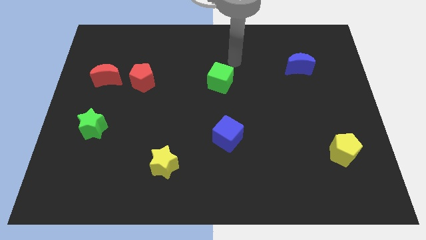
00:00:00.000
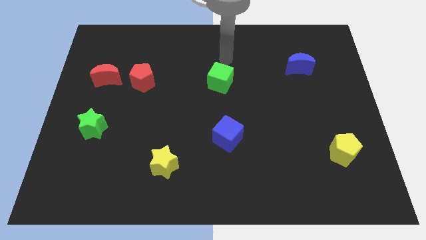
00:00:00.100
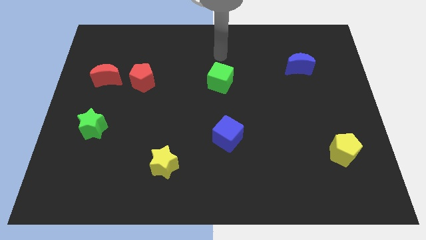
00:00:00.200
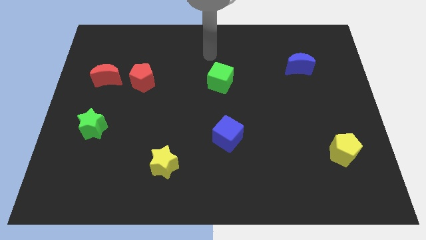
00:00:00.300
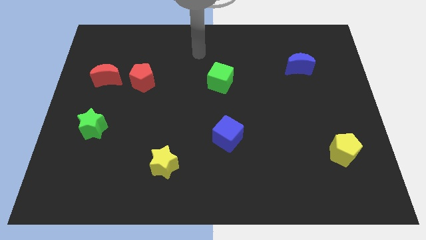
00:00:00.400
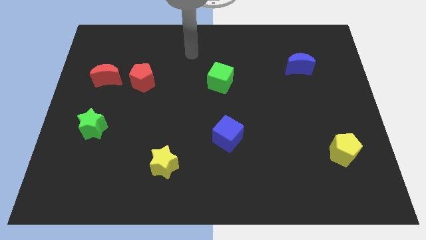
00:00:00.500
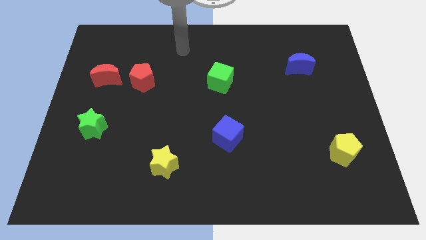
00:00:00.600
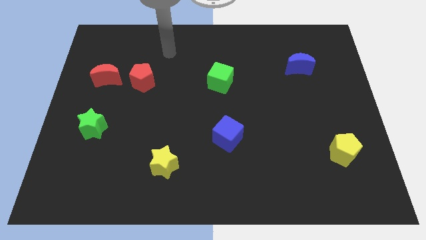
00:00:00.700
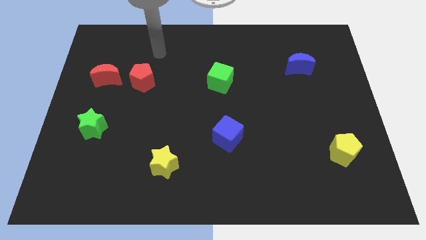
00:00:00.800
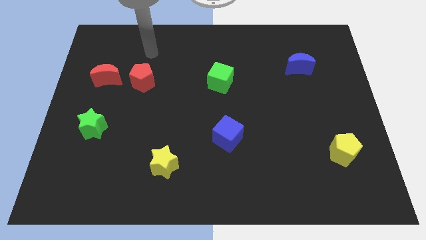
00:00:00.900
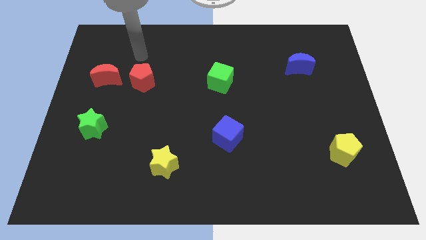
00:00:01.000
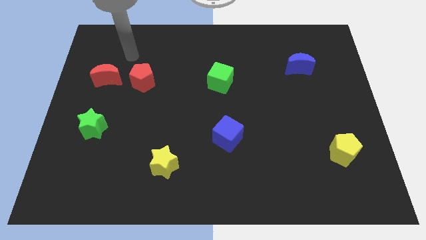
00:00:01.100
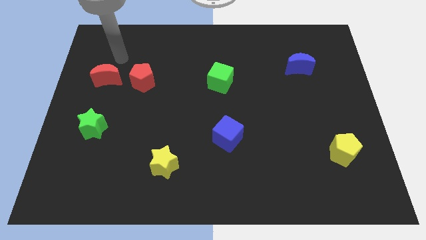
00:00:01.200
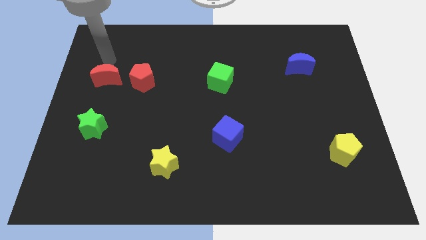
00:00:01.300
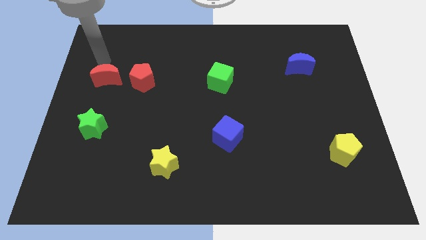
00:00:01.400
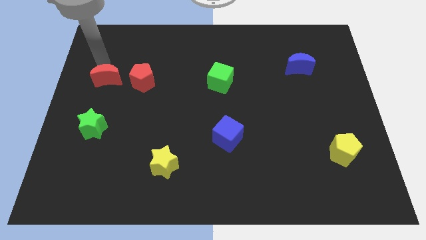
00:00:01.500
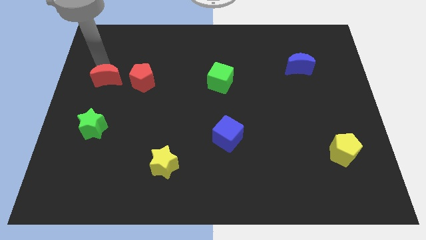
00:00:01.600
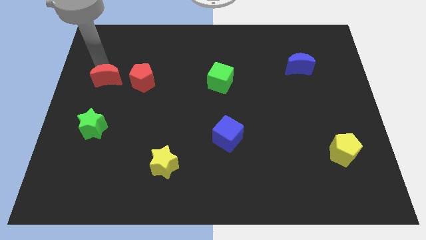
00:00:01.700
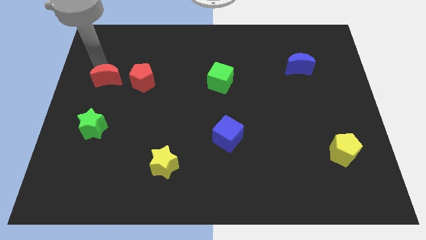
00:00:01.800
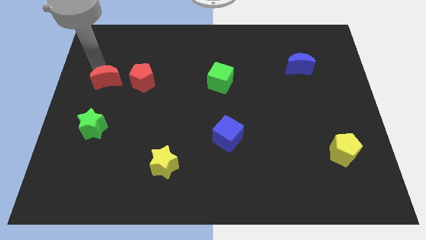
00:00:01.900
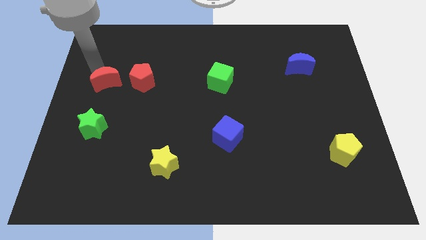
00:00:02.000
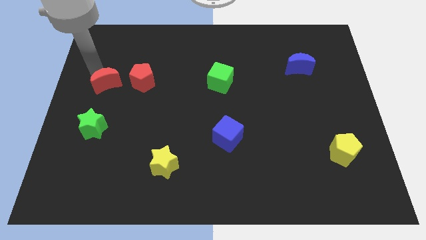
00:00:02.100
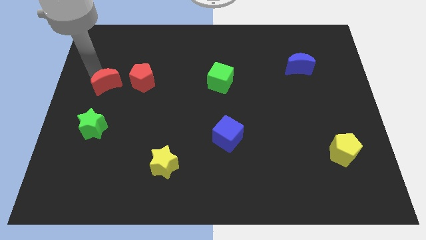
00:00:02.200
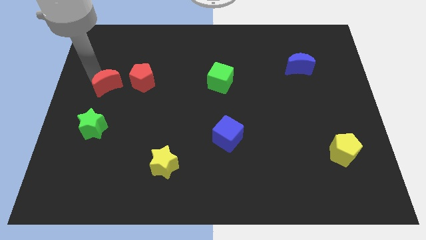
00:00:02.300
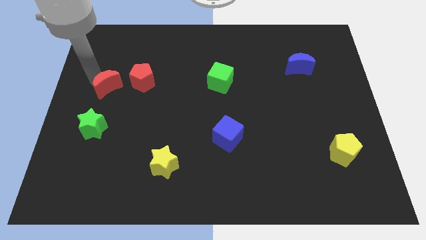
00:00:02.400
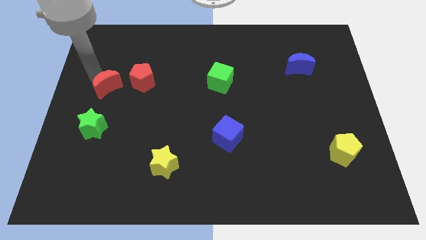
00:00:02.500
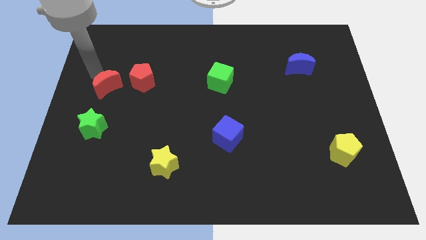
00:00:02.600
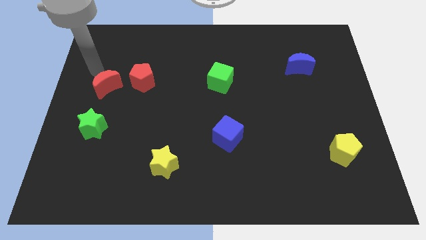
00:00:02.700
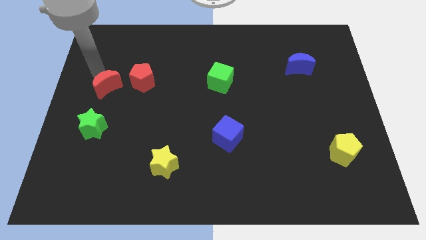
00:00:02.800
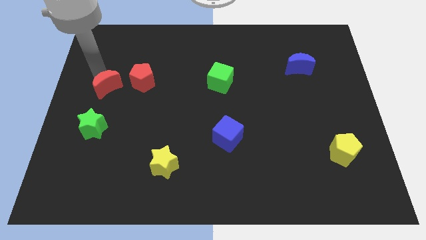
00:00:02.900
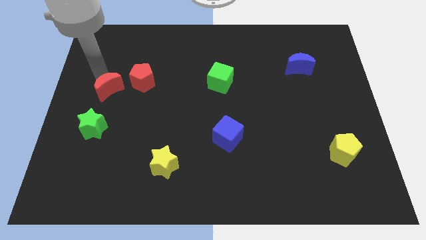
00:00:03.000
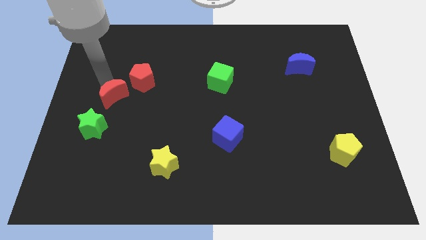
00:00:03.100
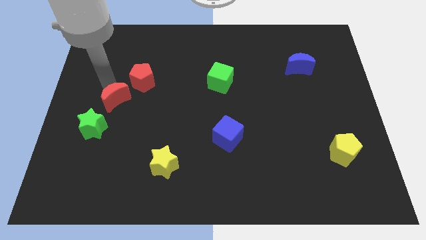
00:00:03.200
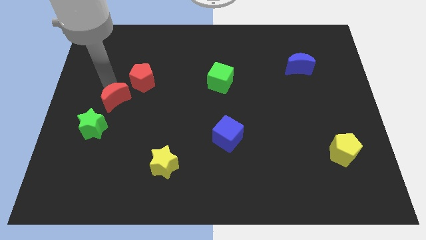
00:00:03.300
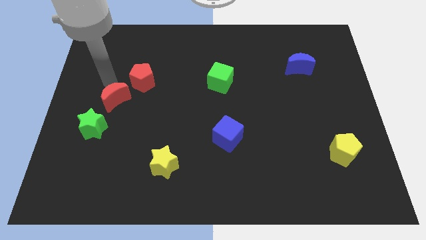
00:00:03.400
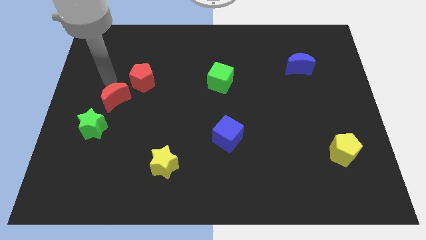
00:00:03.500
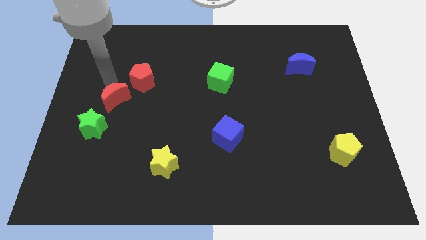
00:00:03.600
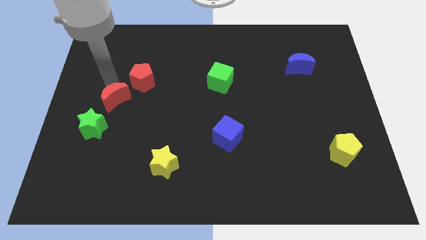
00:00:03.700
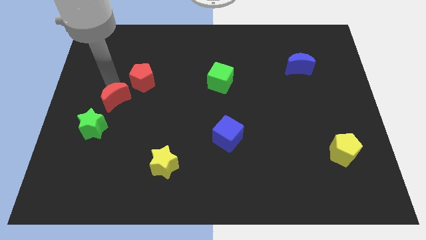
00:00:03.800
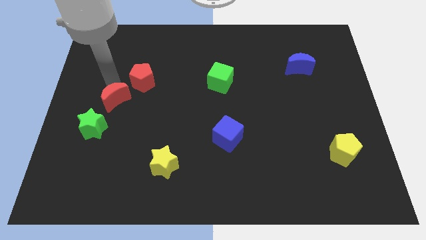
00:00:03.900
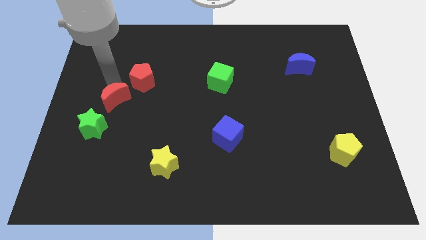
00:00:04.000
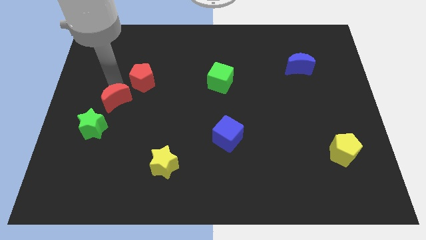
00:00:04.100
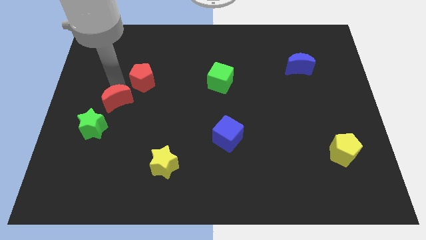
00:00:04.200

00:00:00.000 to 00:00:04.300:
slightly push the red moon down

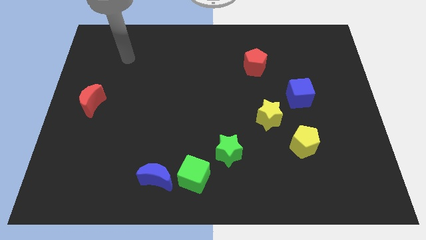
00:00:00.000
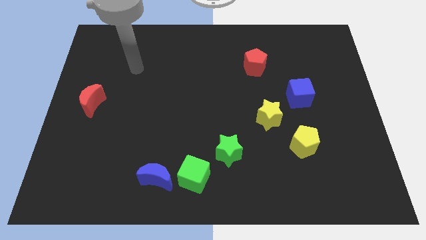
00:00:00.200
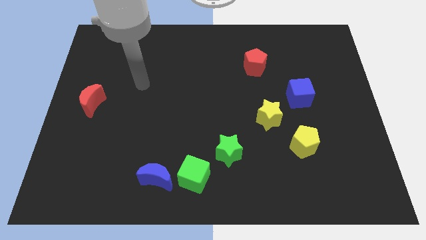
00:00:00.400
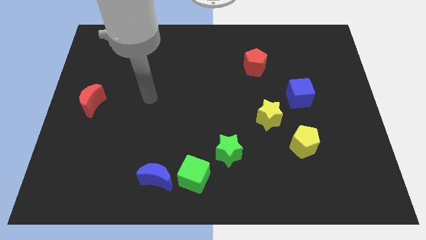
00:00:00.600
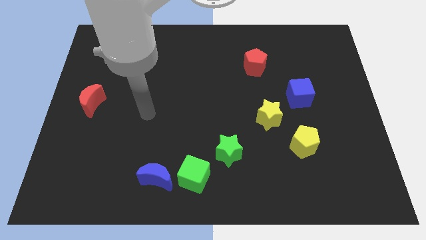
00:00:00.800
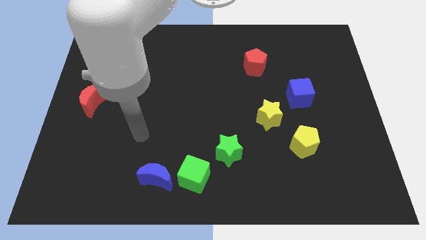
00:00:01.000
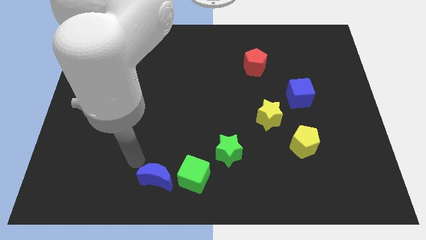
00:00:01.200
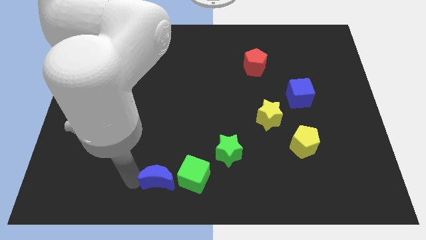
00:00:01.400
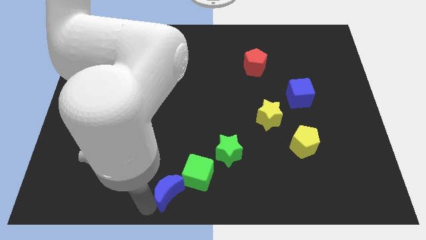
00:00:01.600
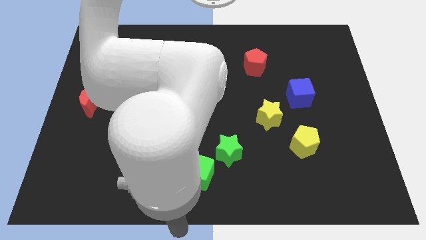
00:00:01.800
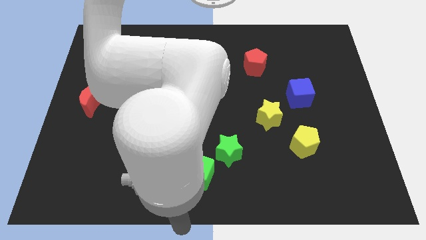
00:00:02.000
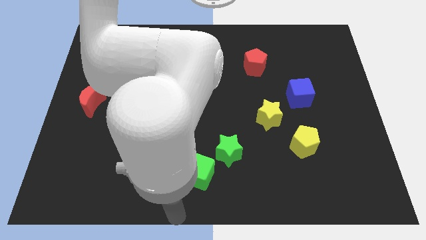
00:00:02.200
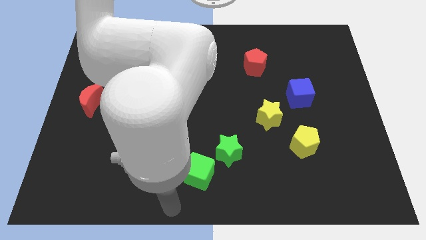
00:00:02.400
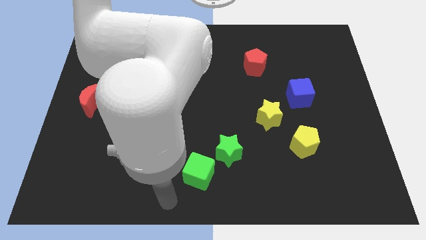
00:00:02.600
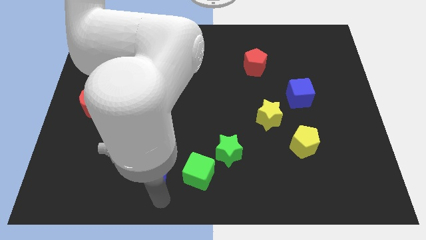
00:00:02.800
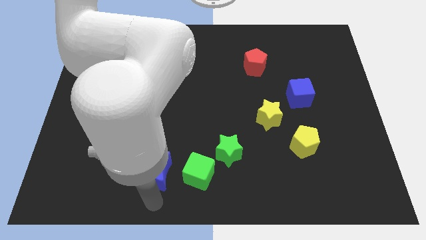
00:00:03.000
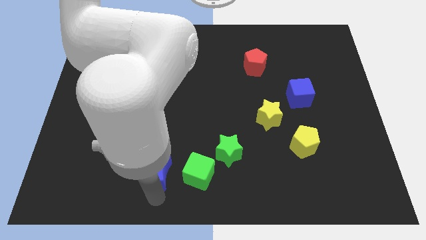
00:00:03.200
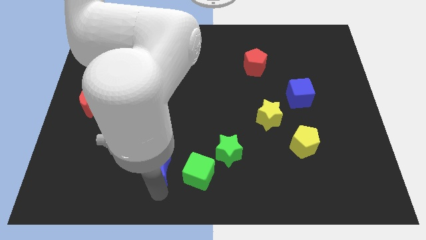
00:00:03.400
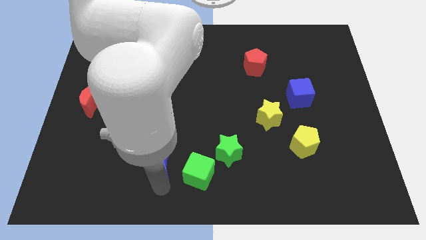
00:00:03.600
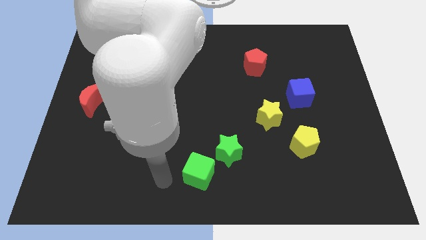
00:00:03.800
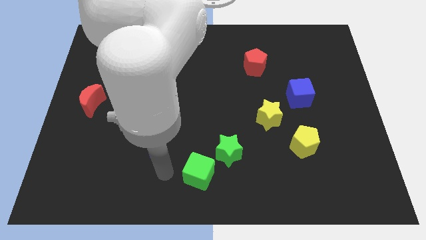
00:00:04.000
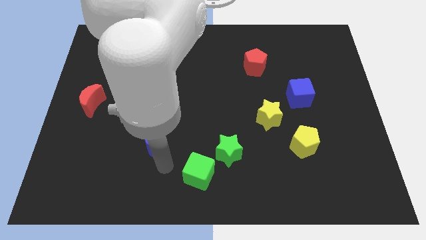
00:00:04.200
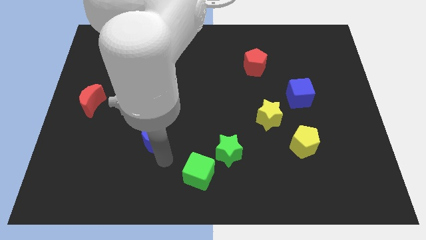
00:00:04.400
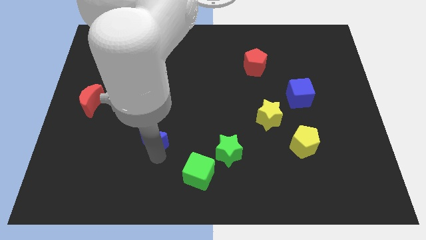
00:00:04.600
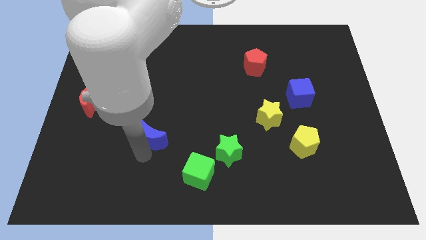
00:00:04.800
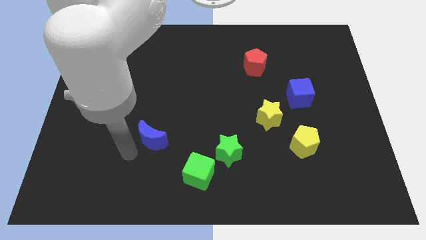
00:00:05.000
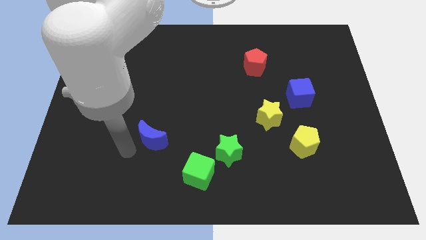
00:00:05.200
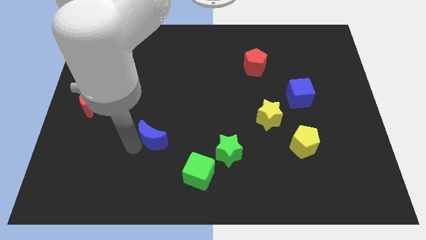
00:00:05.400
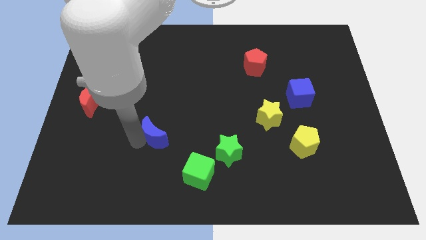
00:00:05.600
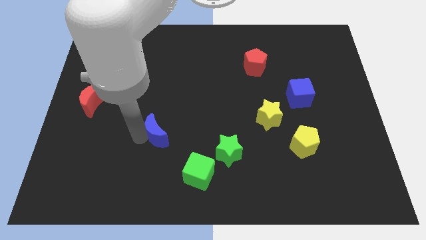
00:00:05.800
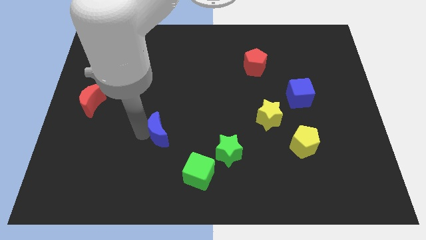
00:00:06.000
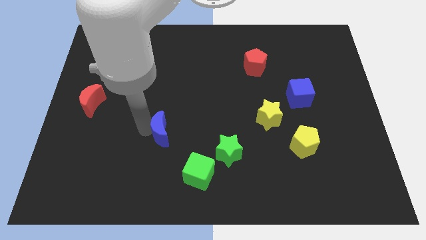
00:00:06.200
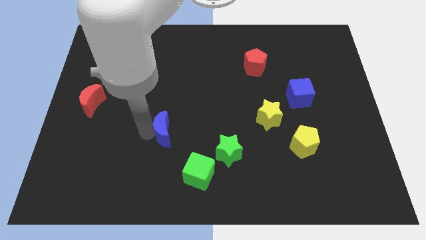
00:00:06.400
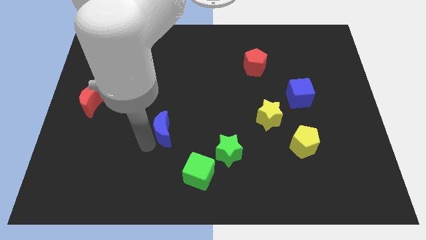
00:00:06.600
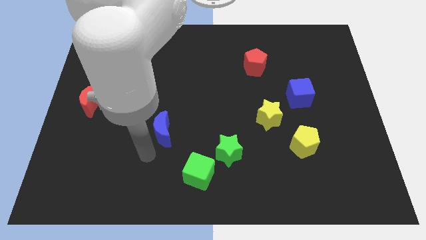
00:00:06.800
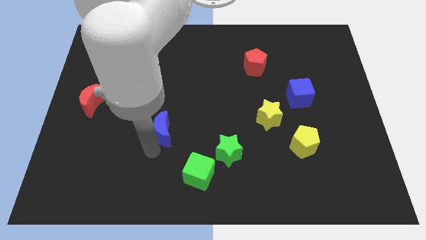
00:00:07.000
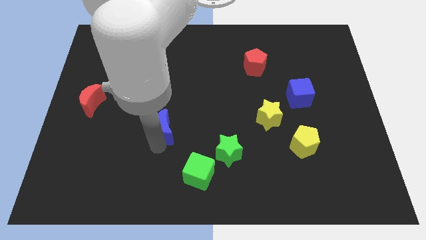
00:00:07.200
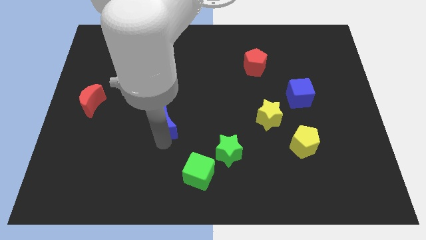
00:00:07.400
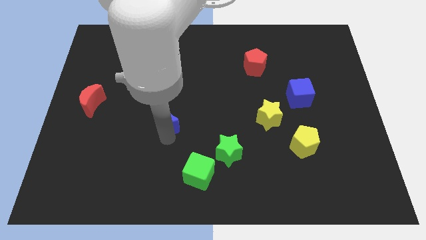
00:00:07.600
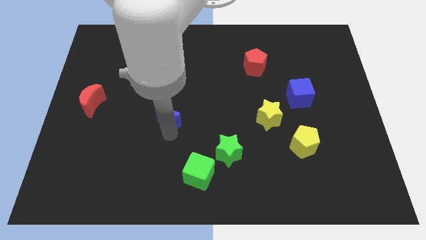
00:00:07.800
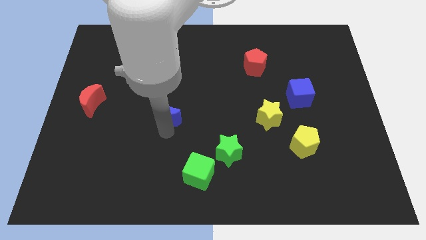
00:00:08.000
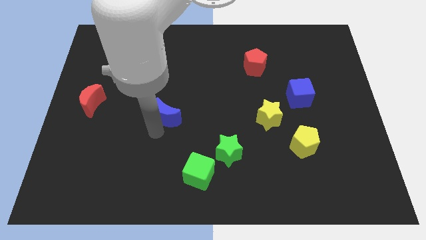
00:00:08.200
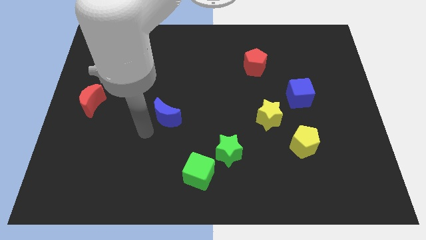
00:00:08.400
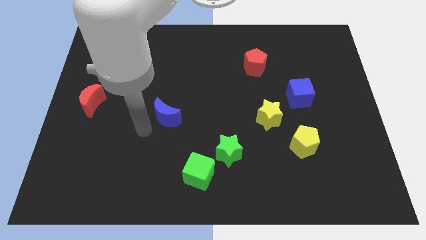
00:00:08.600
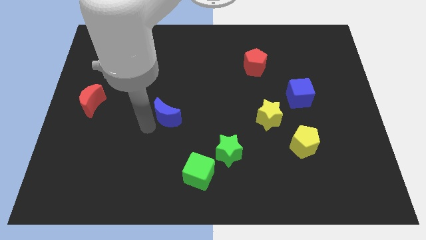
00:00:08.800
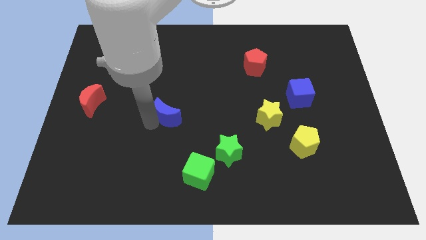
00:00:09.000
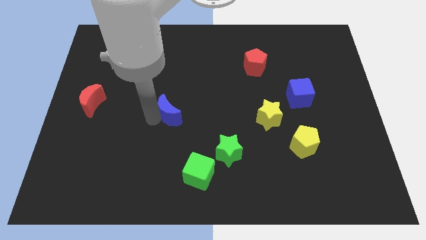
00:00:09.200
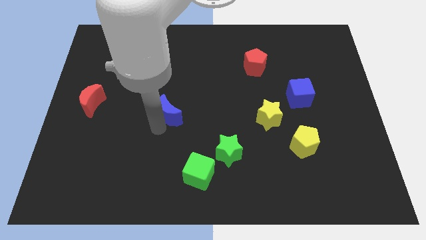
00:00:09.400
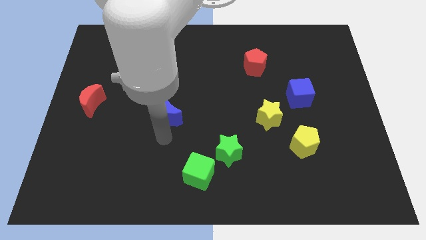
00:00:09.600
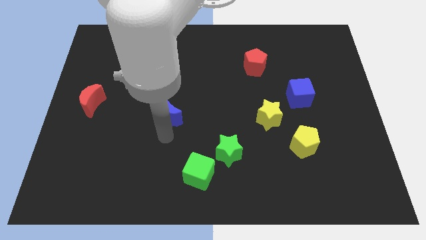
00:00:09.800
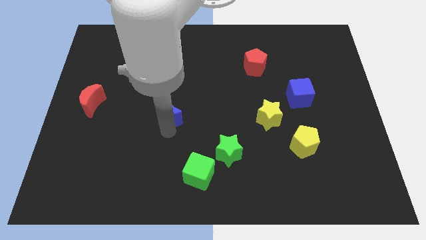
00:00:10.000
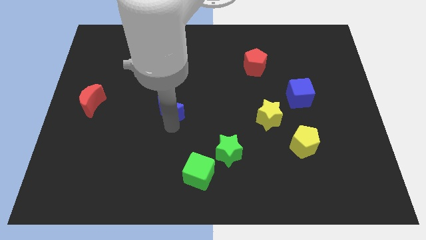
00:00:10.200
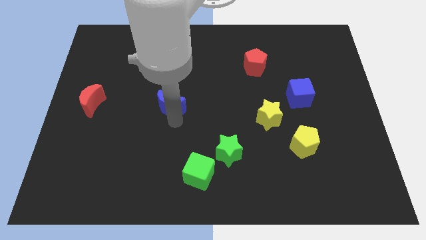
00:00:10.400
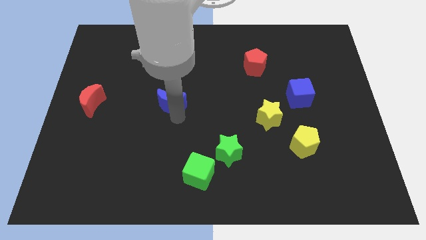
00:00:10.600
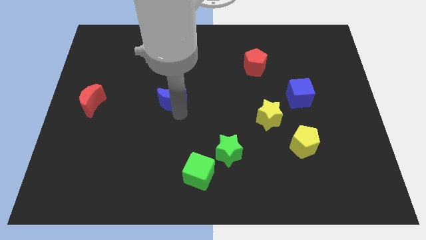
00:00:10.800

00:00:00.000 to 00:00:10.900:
move the blue moon upwards
